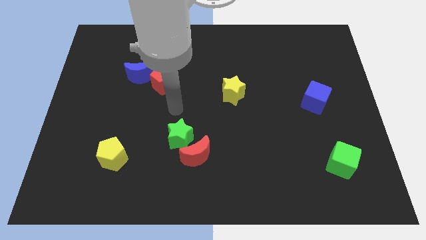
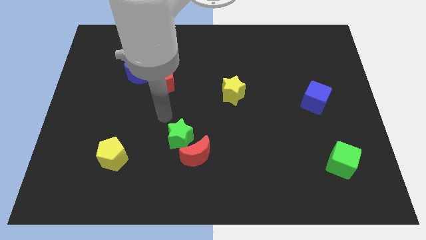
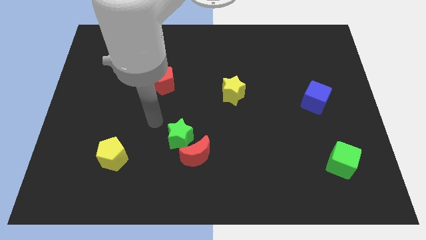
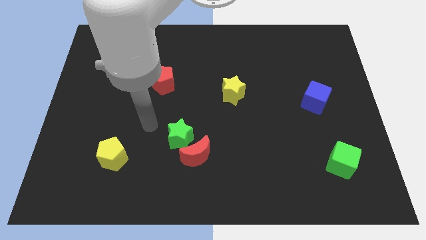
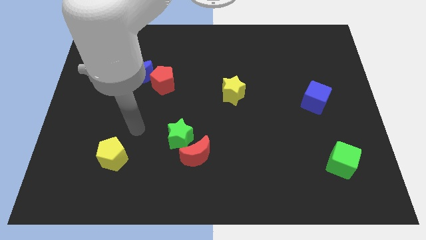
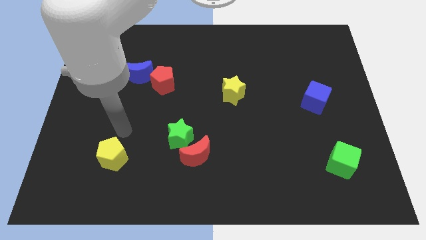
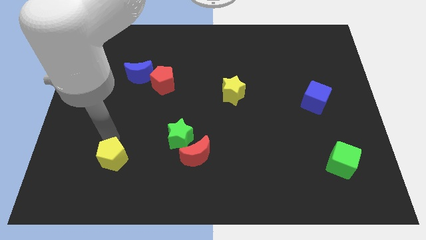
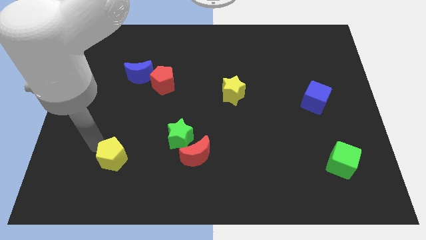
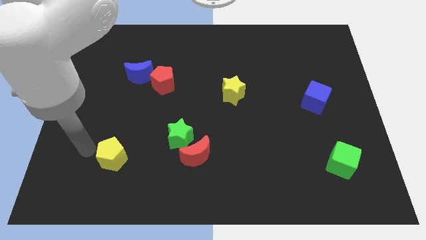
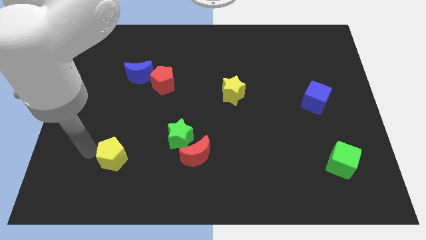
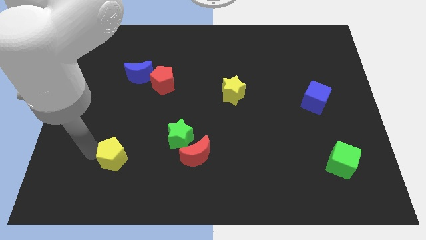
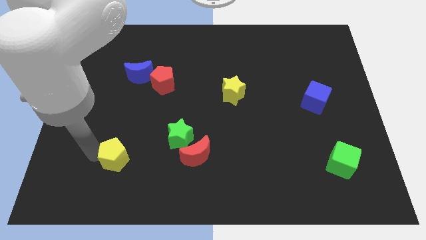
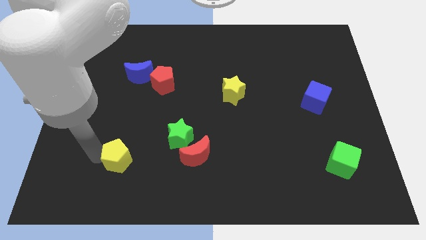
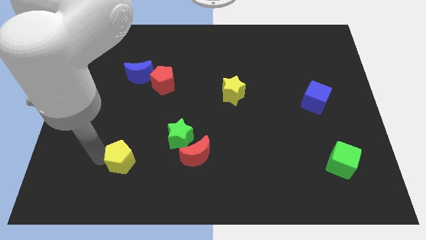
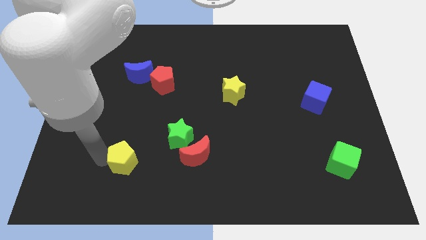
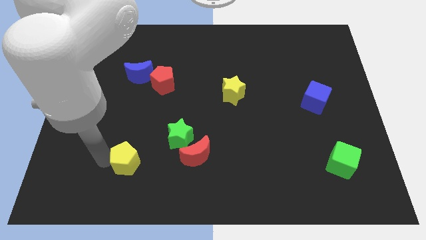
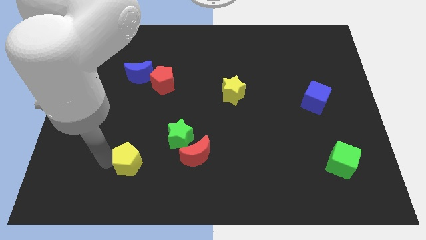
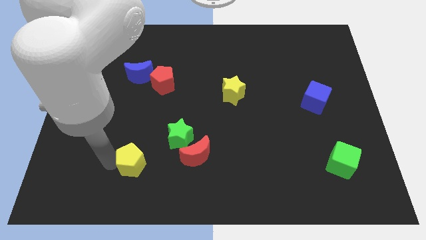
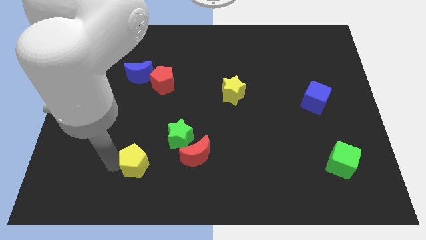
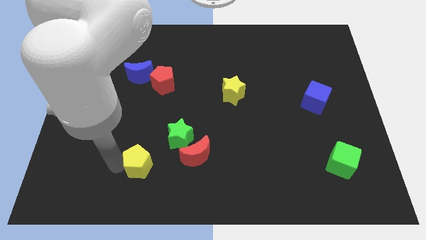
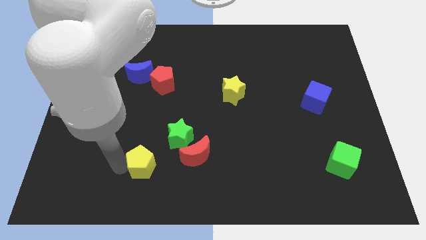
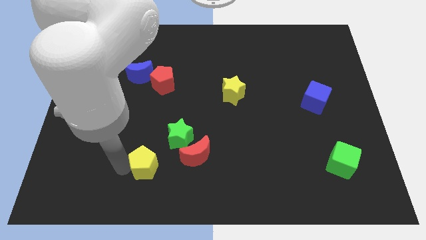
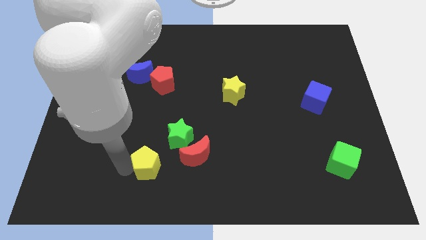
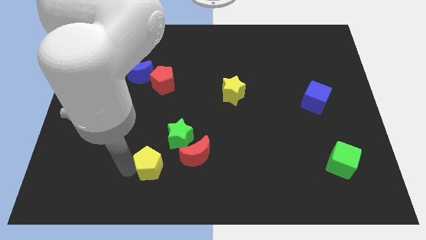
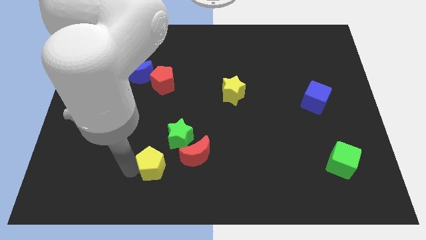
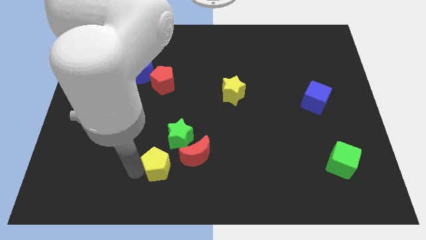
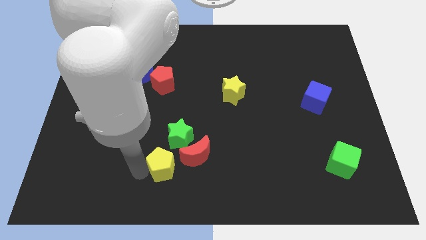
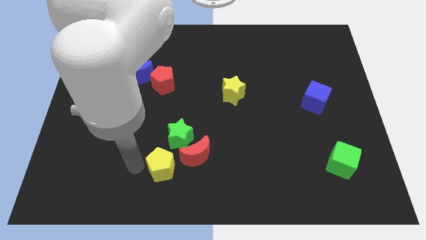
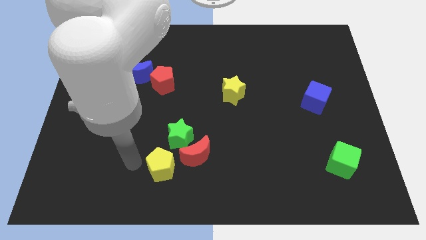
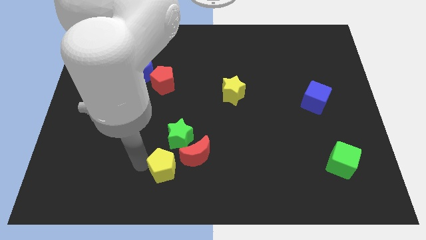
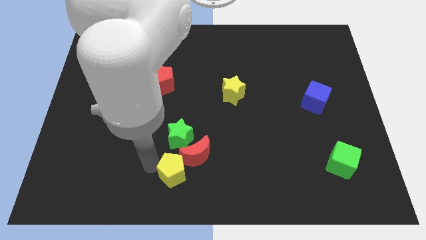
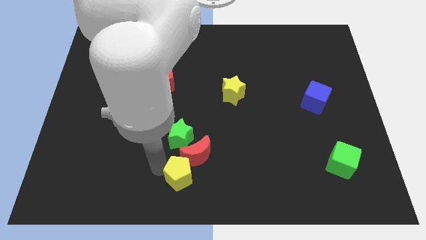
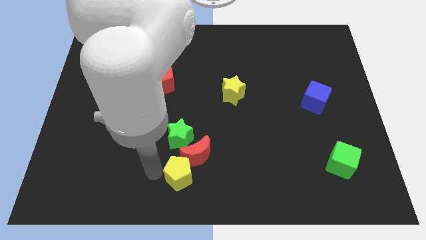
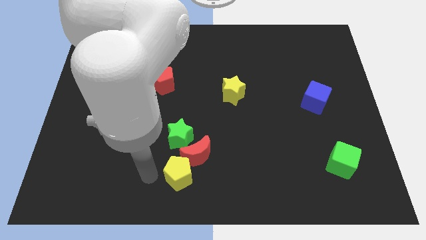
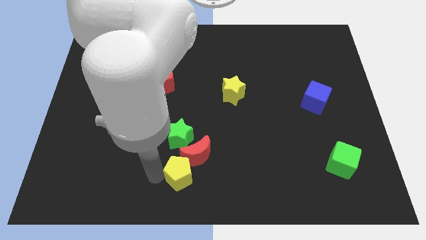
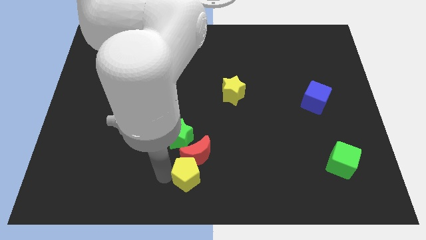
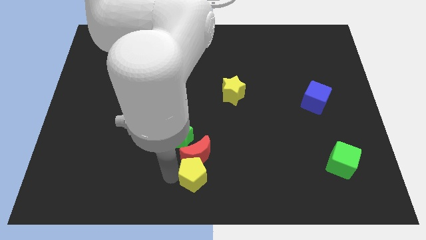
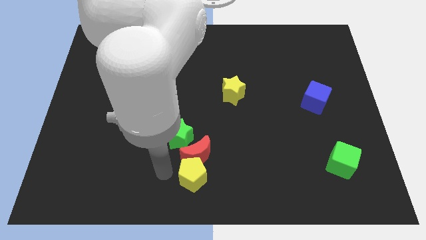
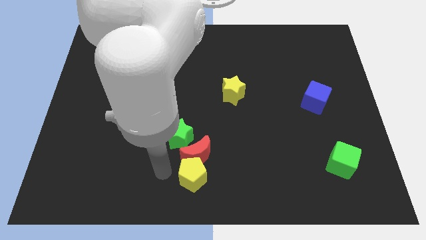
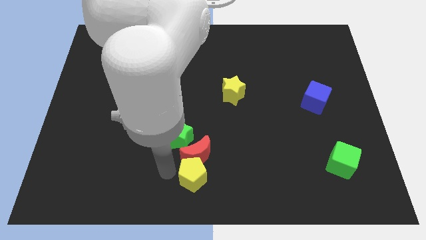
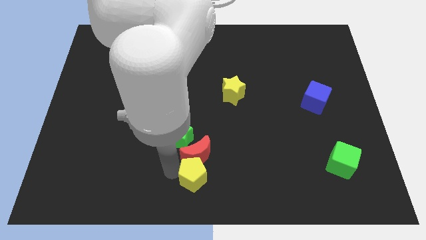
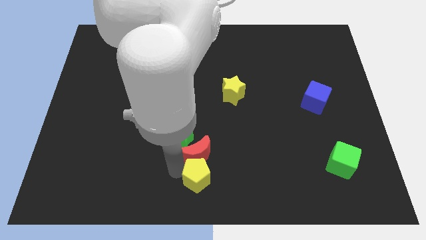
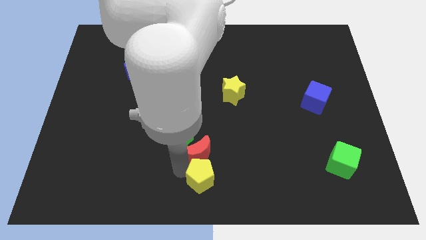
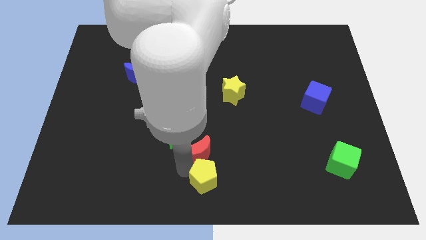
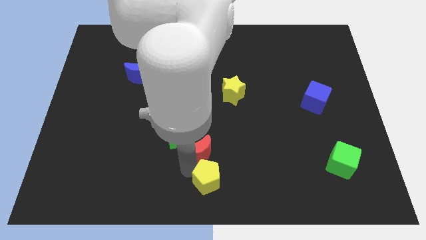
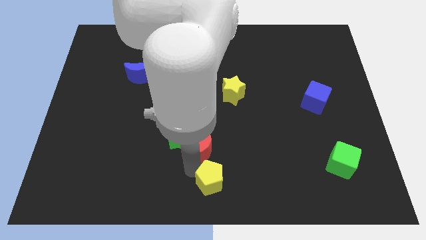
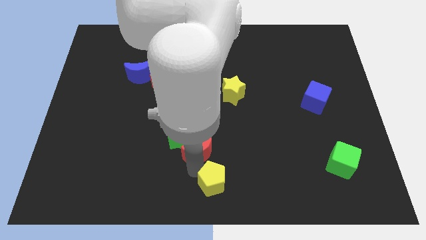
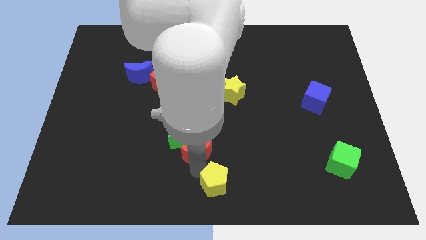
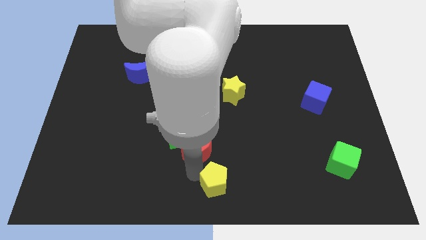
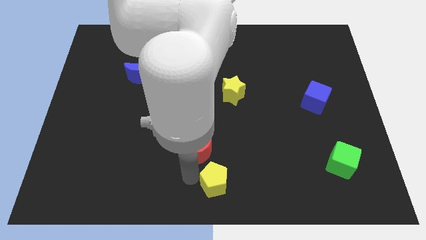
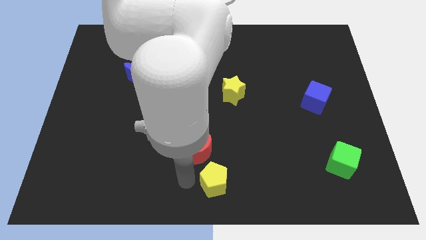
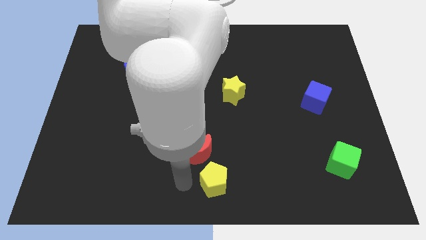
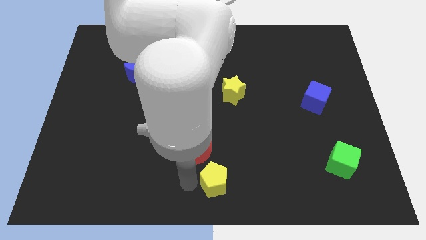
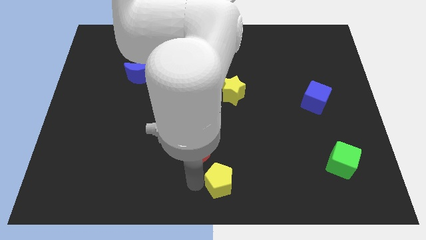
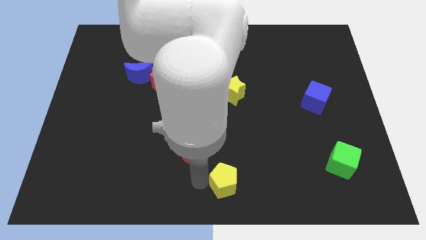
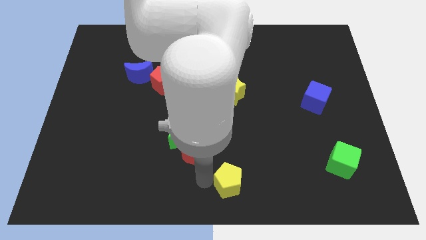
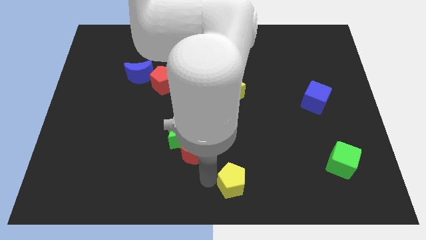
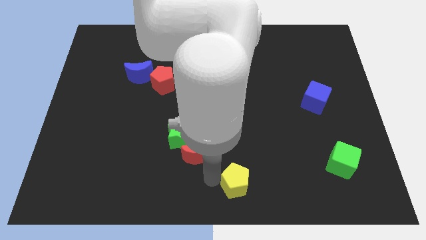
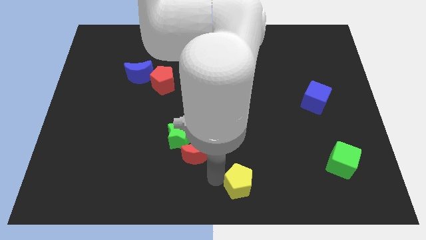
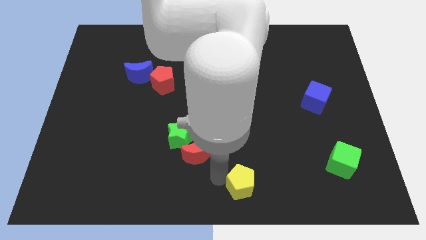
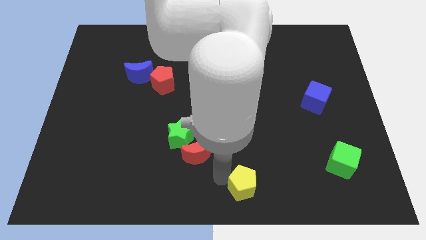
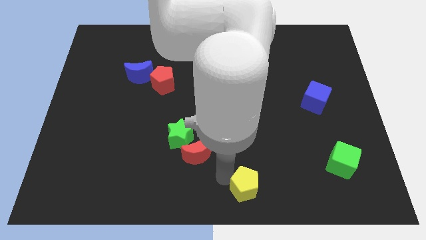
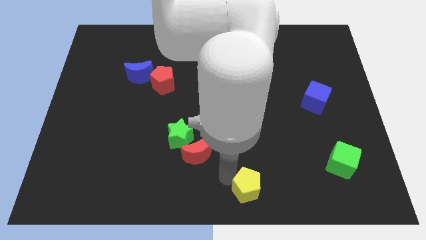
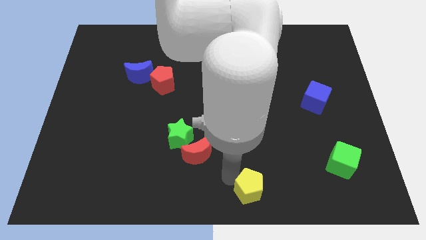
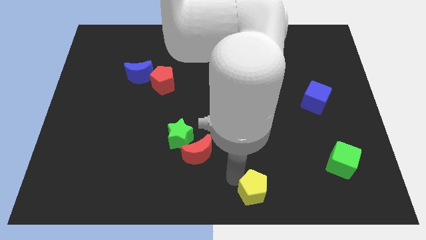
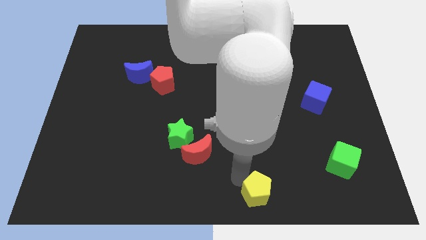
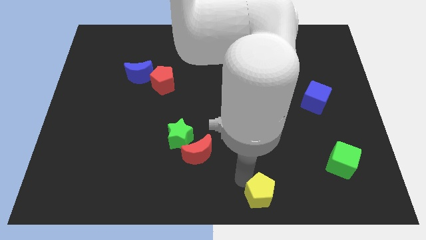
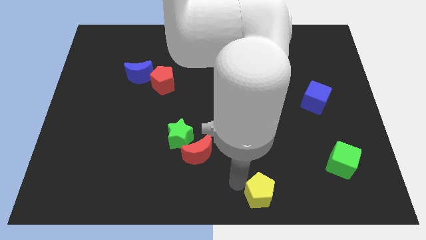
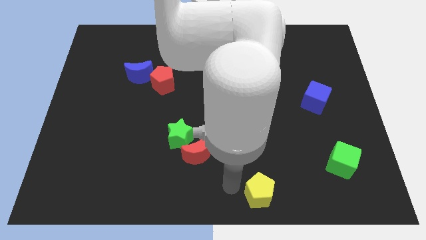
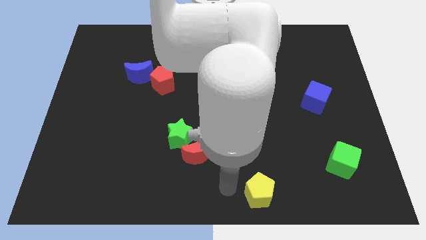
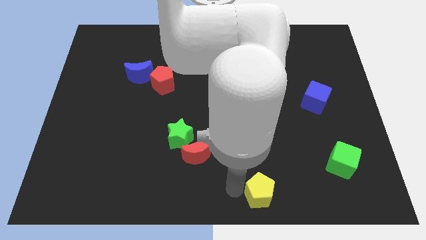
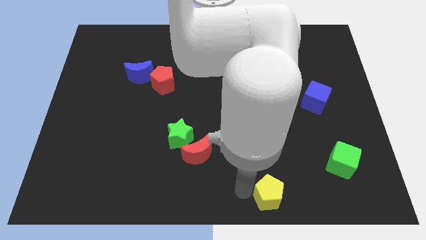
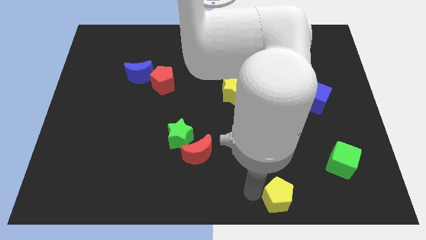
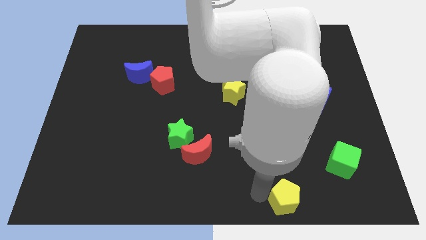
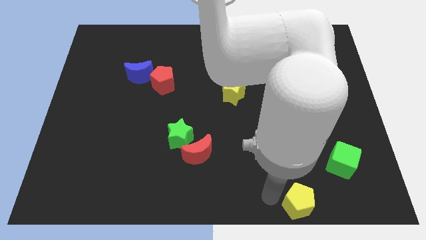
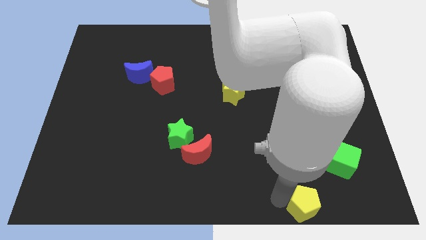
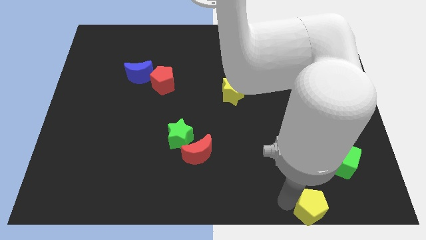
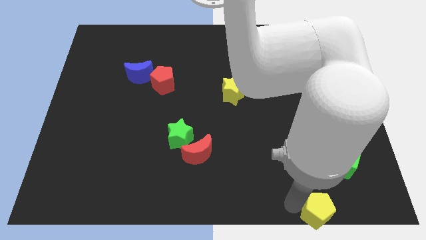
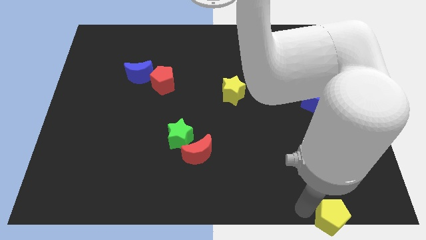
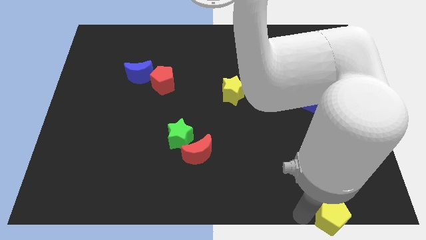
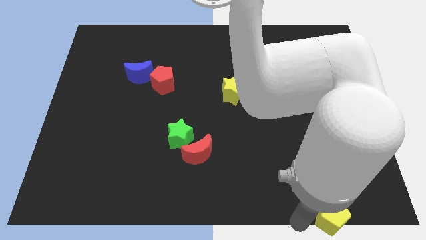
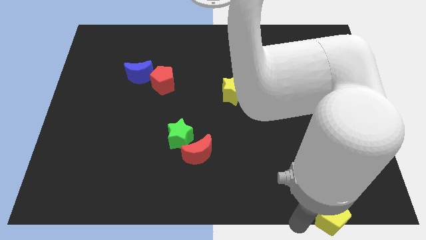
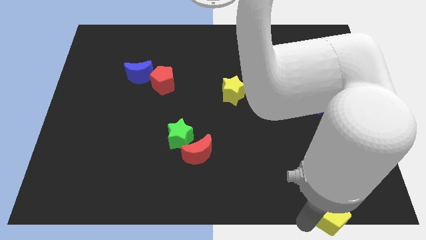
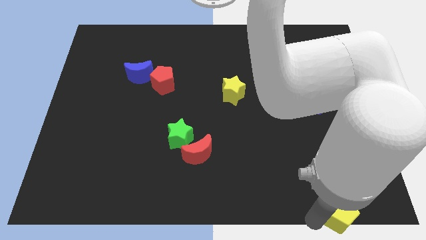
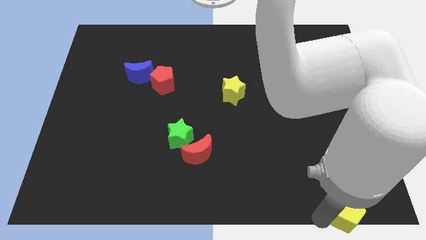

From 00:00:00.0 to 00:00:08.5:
put the yellow pentagon to the lower right corner
